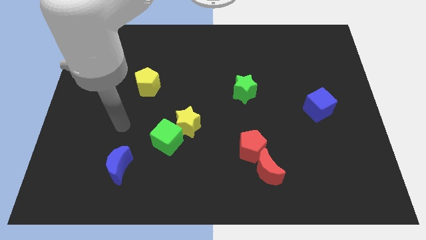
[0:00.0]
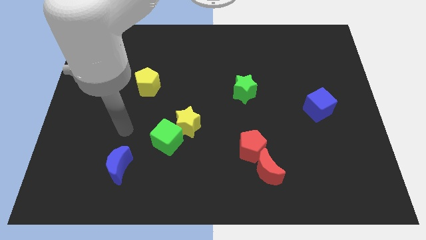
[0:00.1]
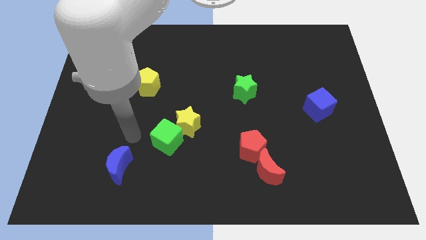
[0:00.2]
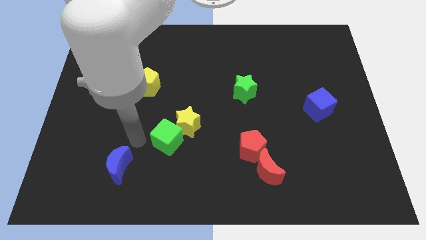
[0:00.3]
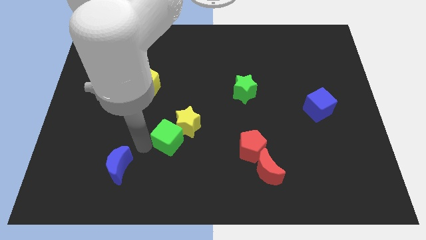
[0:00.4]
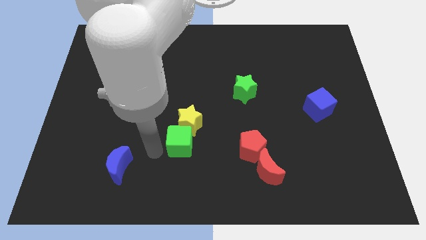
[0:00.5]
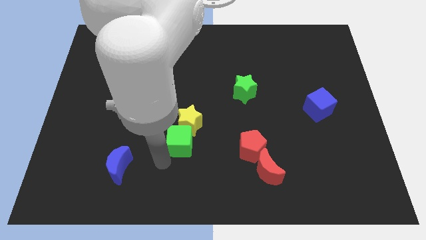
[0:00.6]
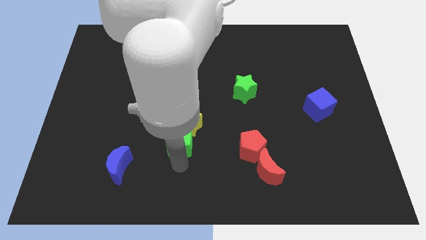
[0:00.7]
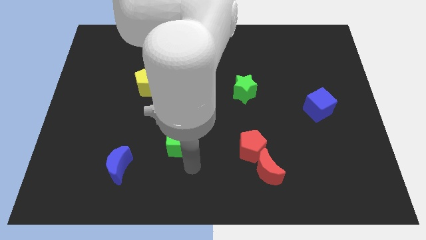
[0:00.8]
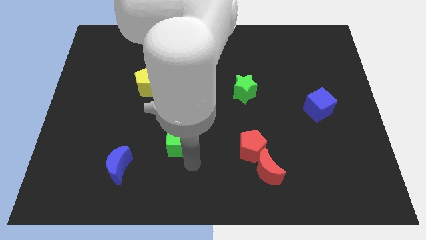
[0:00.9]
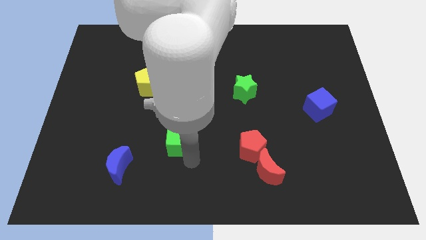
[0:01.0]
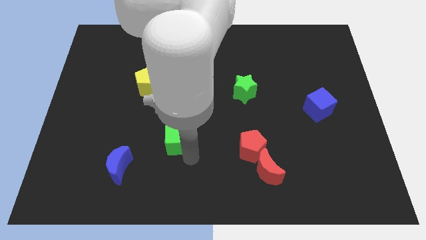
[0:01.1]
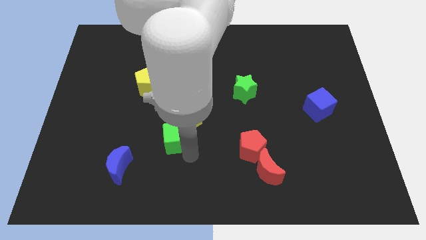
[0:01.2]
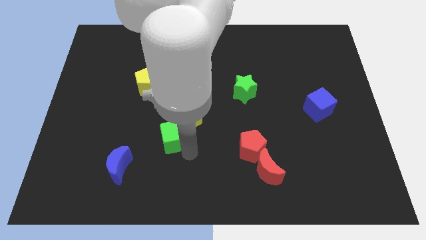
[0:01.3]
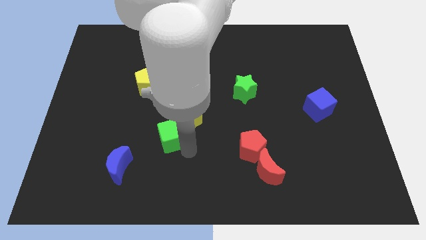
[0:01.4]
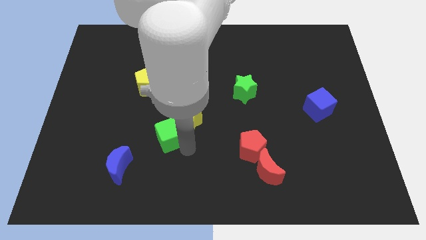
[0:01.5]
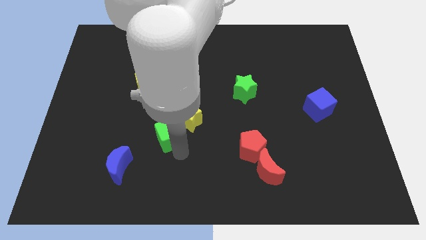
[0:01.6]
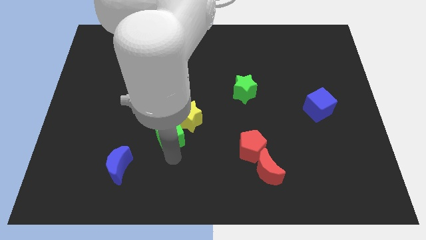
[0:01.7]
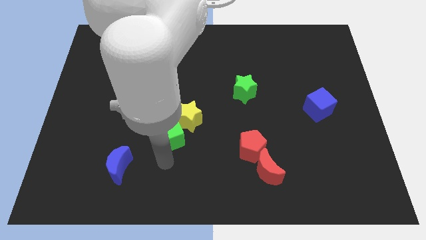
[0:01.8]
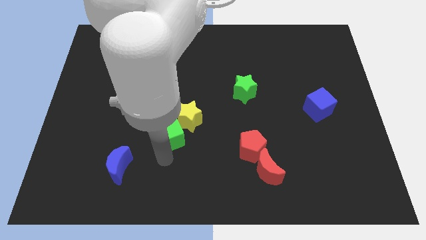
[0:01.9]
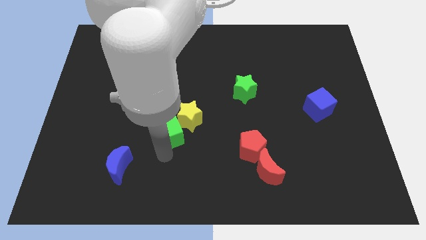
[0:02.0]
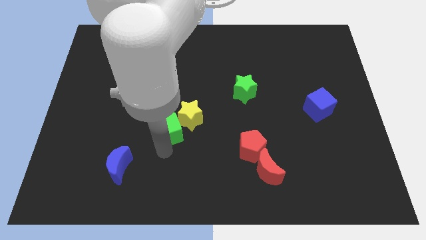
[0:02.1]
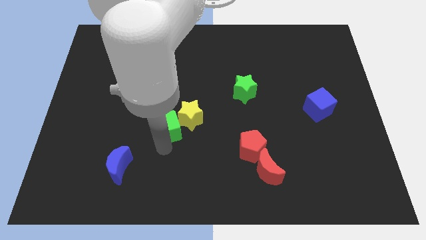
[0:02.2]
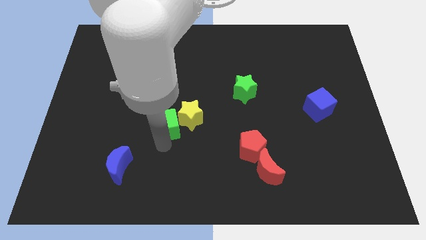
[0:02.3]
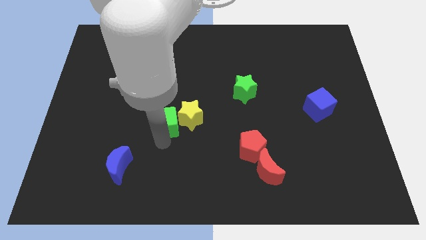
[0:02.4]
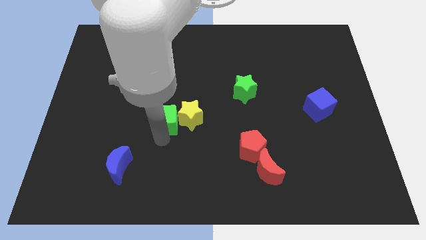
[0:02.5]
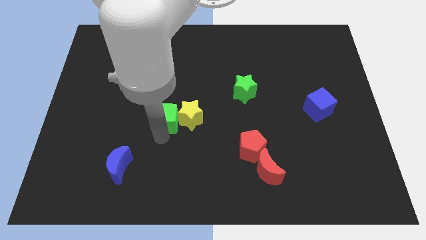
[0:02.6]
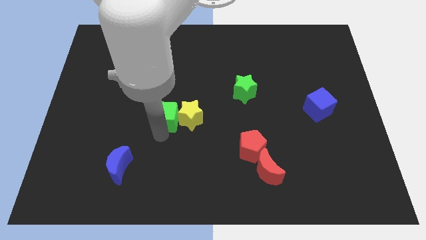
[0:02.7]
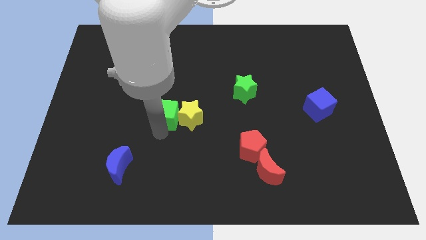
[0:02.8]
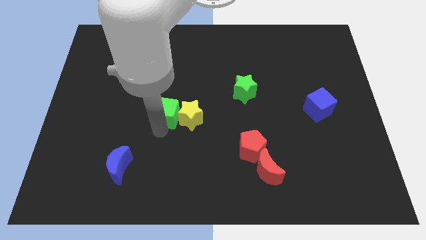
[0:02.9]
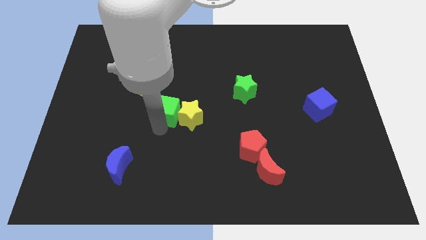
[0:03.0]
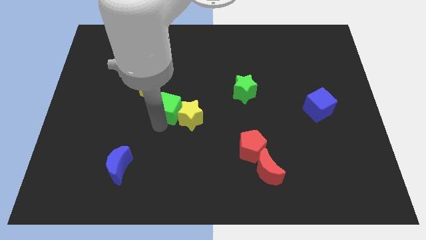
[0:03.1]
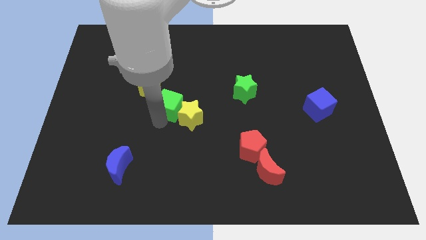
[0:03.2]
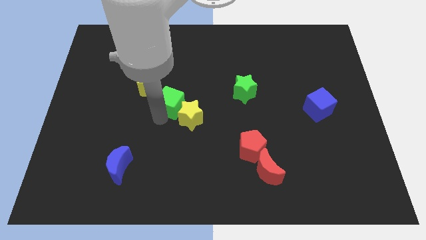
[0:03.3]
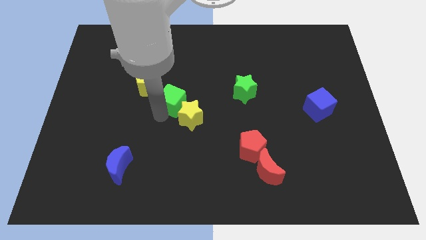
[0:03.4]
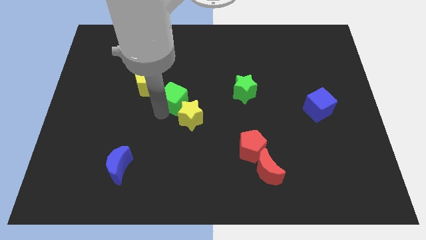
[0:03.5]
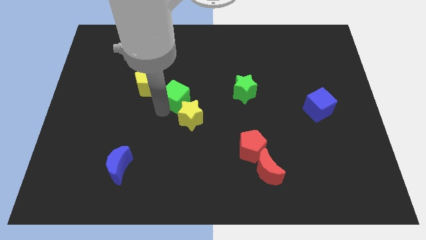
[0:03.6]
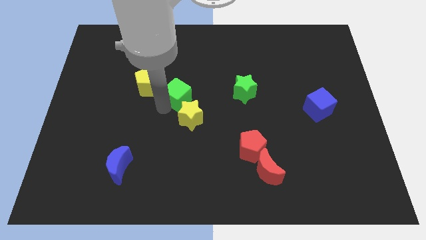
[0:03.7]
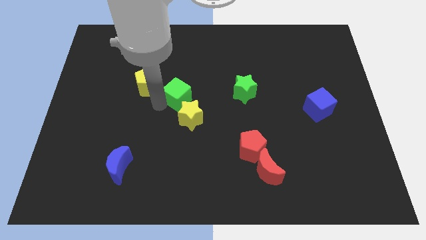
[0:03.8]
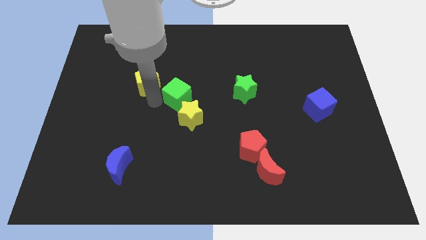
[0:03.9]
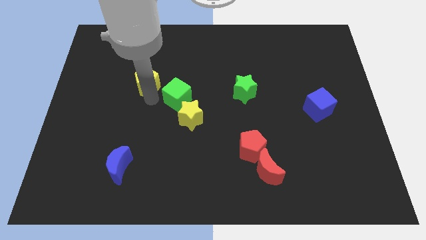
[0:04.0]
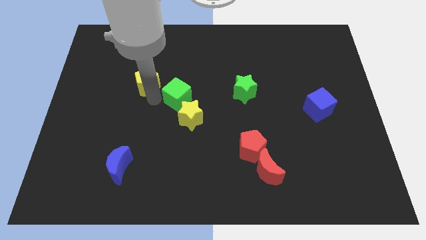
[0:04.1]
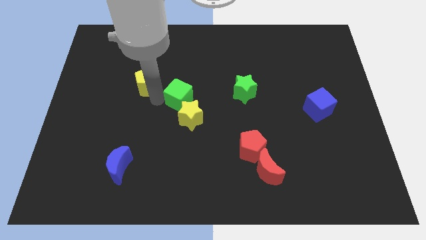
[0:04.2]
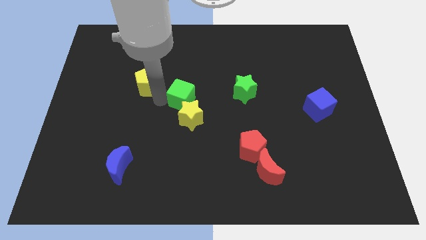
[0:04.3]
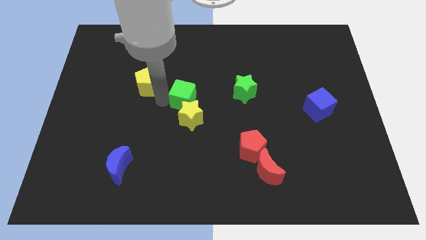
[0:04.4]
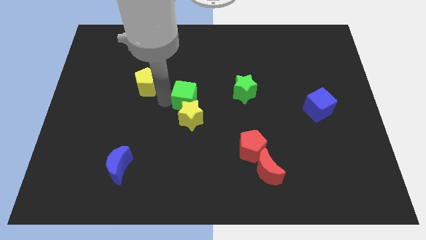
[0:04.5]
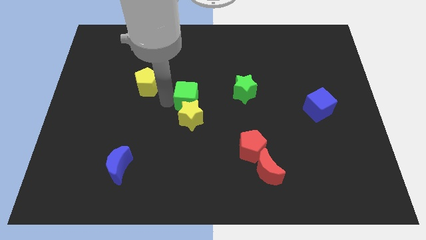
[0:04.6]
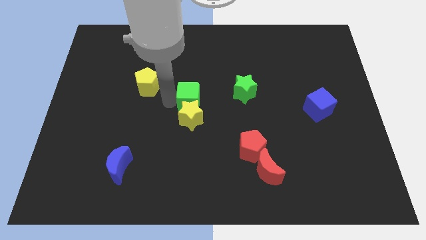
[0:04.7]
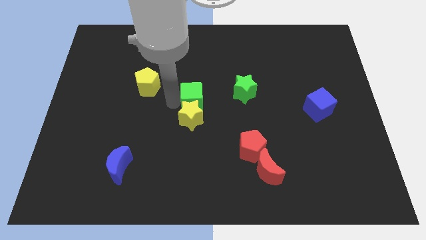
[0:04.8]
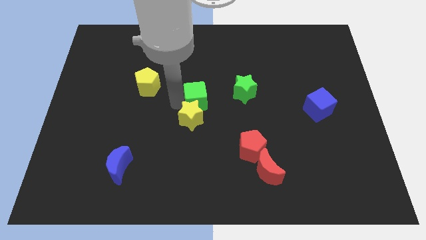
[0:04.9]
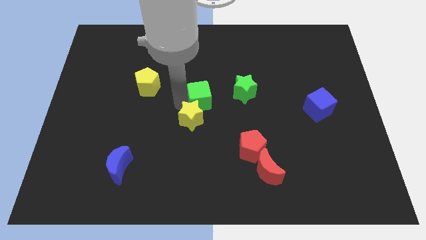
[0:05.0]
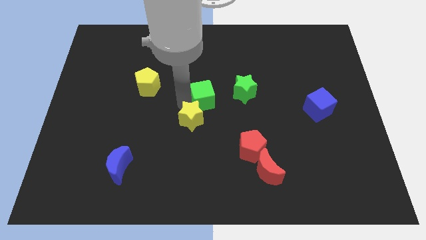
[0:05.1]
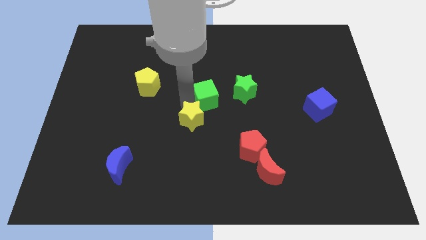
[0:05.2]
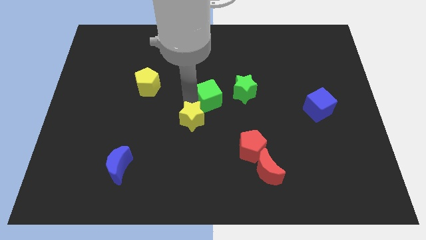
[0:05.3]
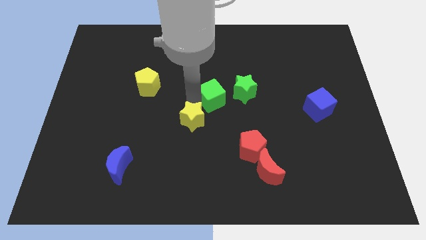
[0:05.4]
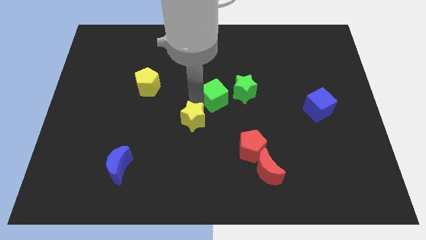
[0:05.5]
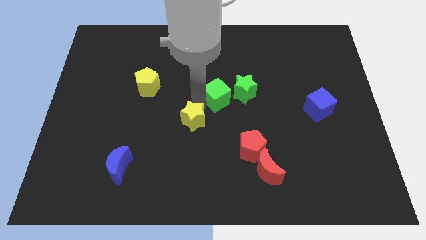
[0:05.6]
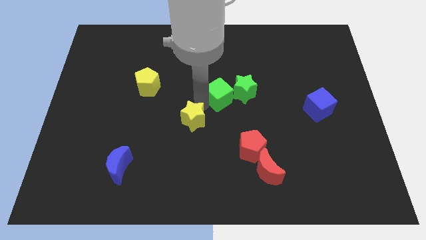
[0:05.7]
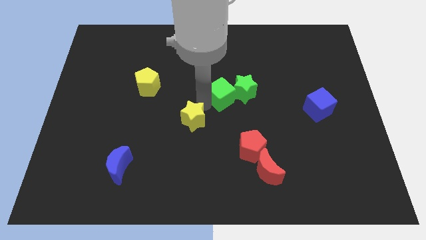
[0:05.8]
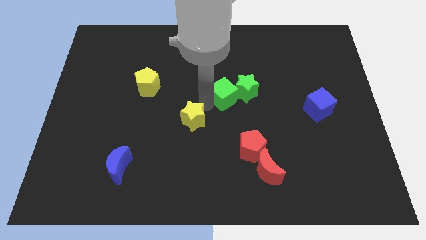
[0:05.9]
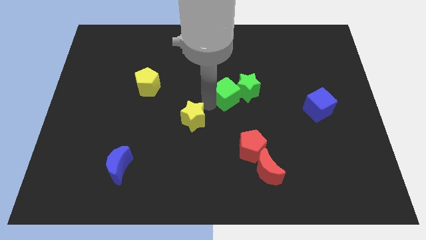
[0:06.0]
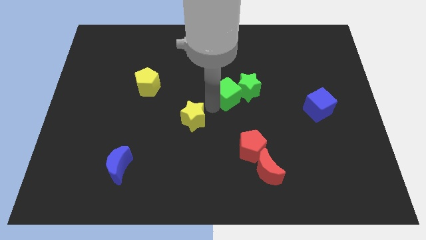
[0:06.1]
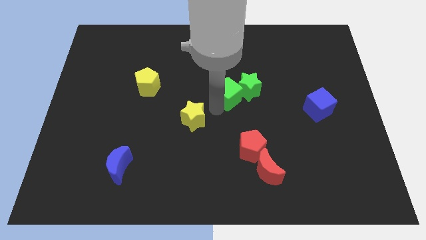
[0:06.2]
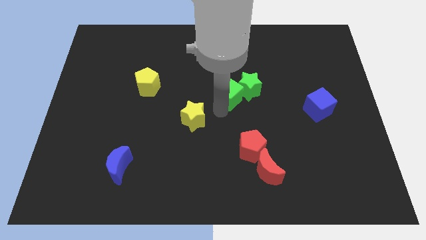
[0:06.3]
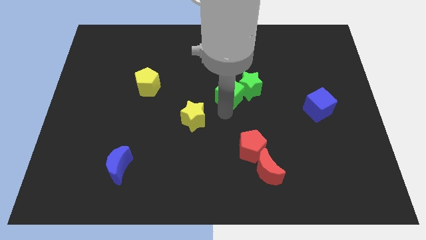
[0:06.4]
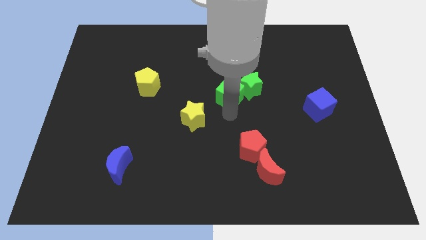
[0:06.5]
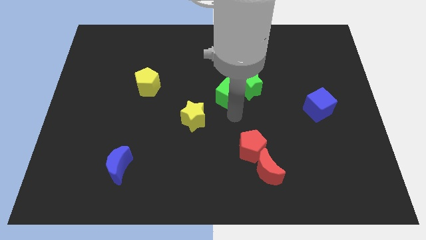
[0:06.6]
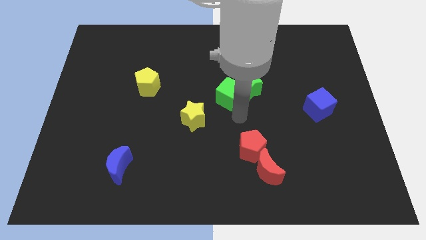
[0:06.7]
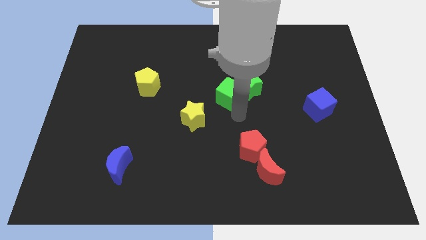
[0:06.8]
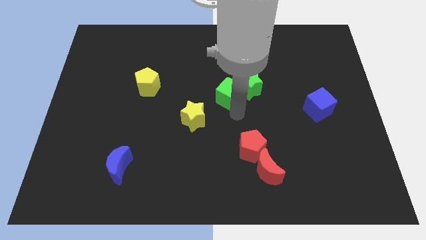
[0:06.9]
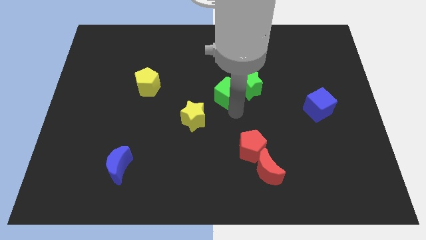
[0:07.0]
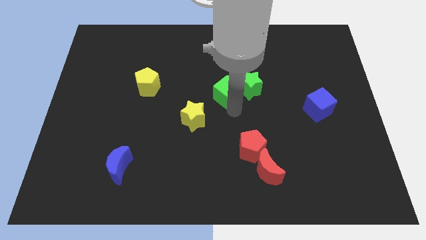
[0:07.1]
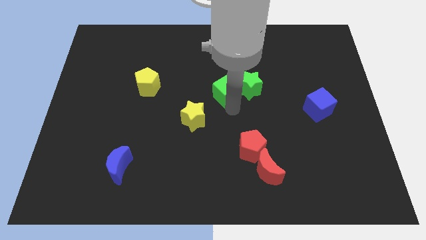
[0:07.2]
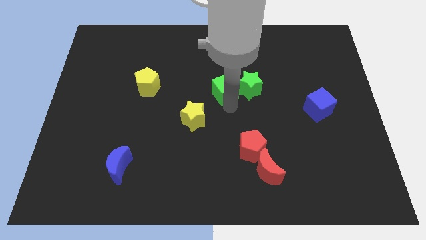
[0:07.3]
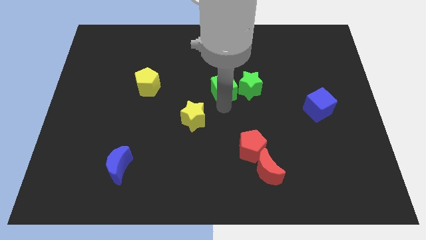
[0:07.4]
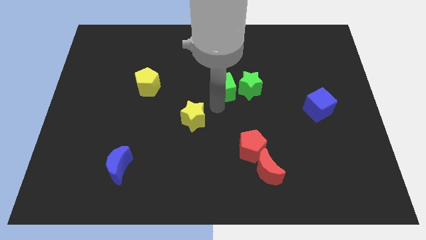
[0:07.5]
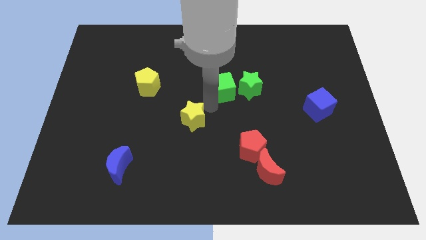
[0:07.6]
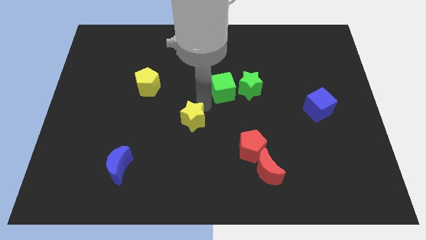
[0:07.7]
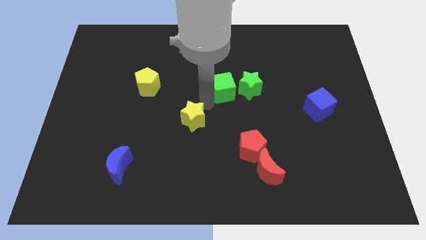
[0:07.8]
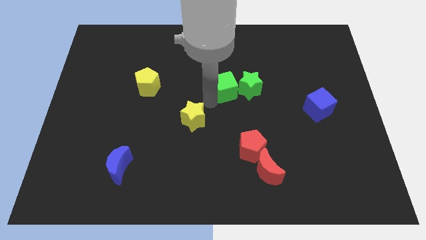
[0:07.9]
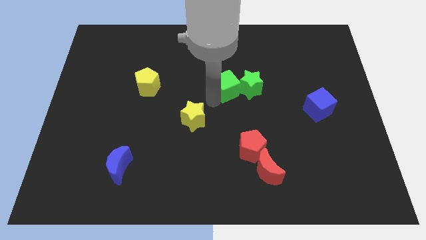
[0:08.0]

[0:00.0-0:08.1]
slide the green cube upwards and right
